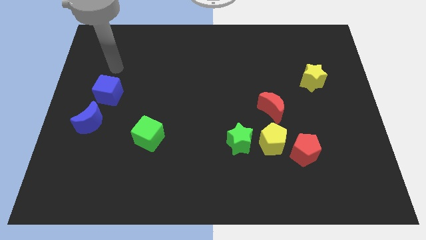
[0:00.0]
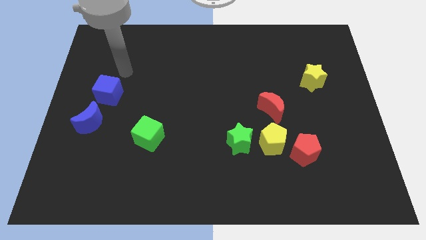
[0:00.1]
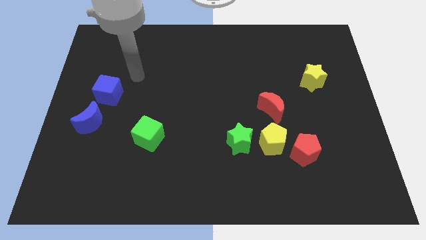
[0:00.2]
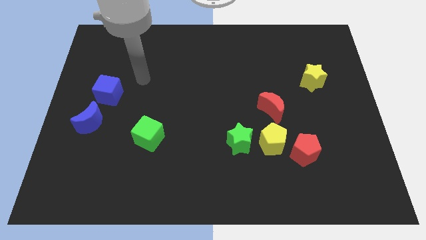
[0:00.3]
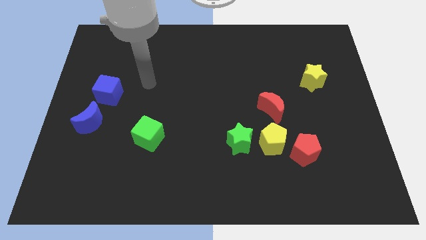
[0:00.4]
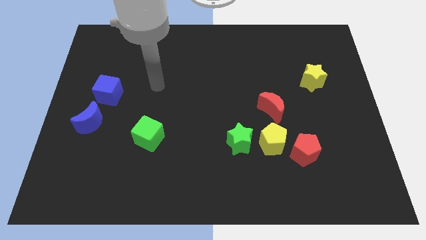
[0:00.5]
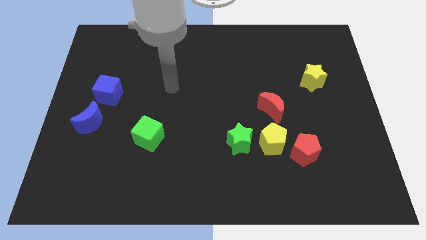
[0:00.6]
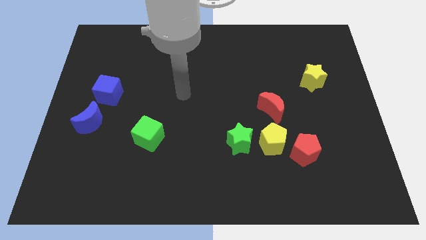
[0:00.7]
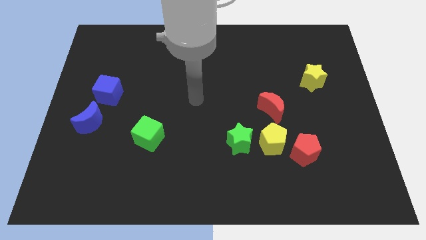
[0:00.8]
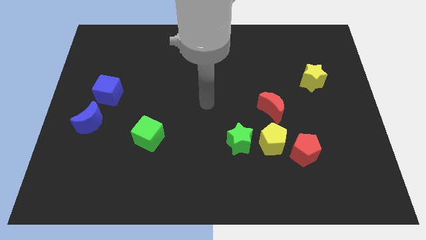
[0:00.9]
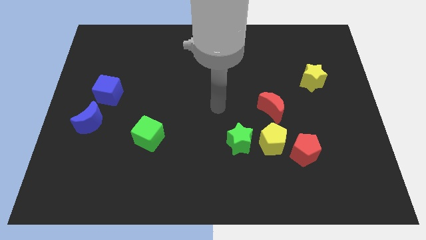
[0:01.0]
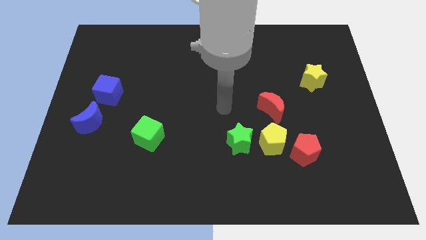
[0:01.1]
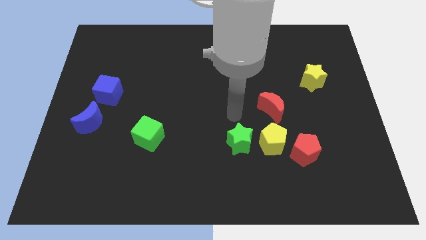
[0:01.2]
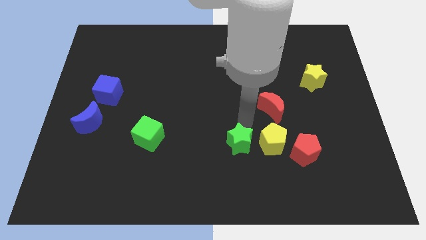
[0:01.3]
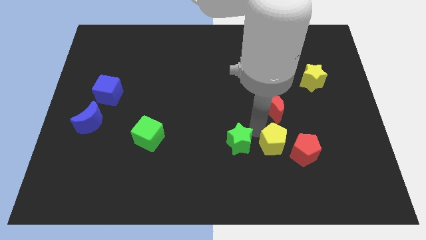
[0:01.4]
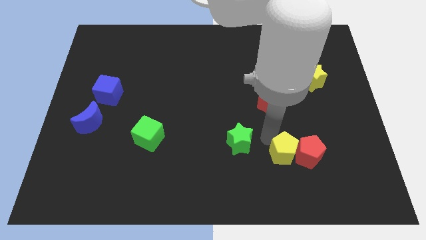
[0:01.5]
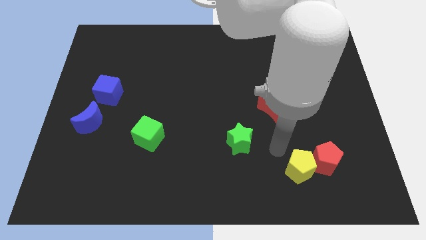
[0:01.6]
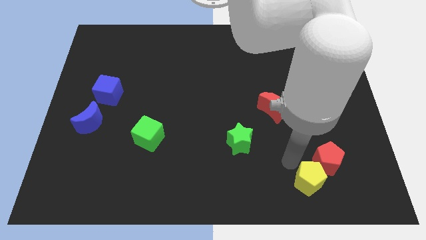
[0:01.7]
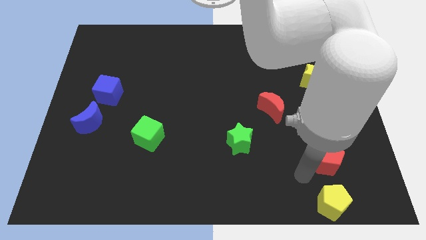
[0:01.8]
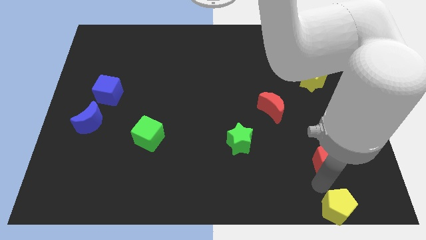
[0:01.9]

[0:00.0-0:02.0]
pull the red pentagon apart from the yellow pentagon

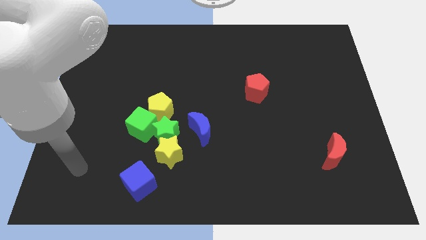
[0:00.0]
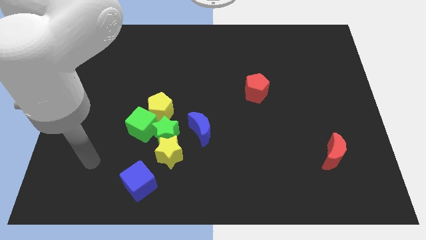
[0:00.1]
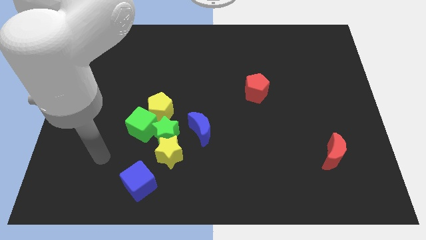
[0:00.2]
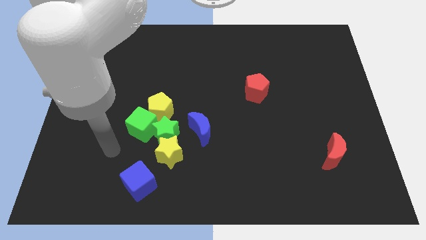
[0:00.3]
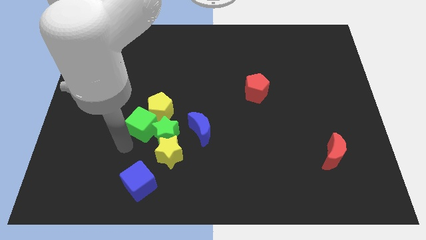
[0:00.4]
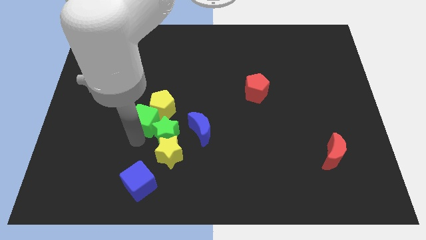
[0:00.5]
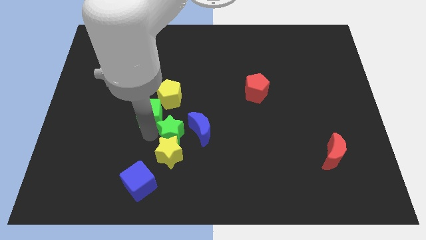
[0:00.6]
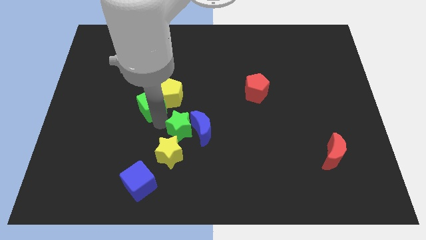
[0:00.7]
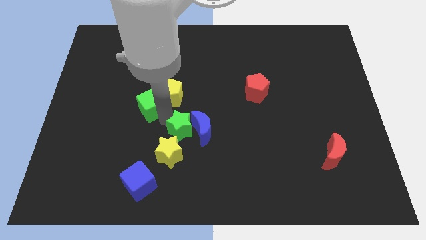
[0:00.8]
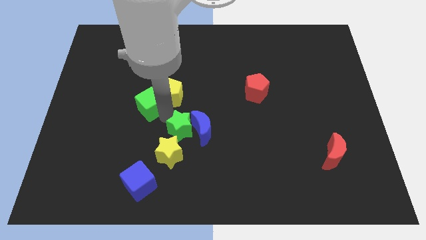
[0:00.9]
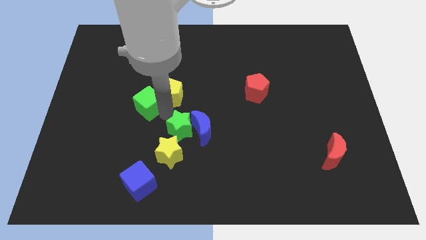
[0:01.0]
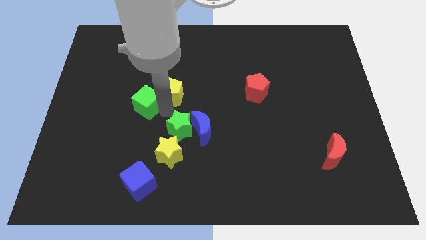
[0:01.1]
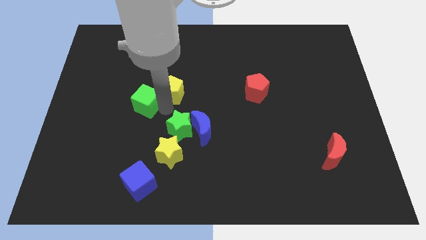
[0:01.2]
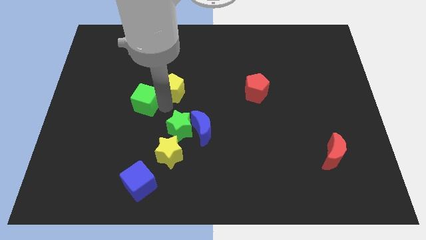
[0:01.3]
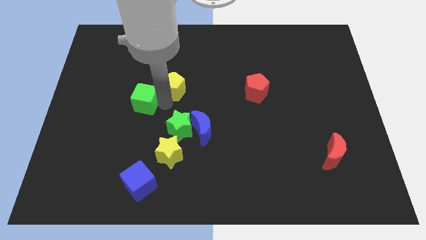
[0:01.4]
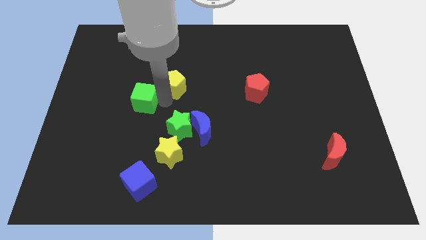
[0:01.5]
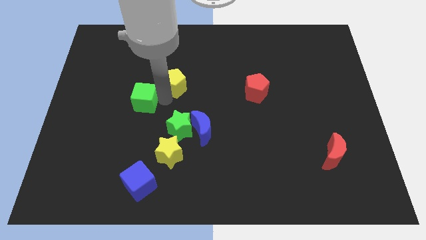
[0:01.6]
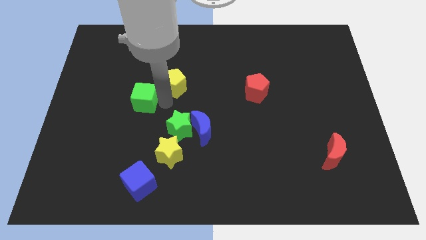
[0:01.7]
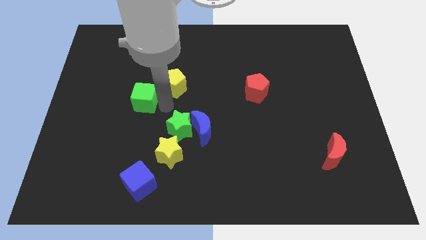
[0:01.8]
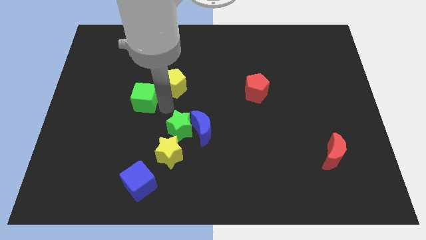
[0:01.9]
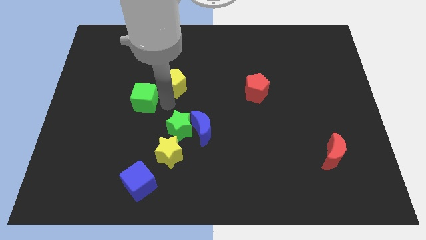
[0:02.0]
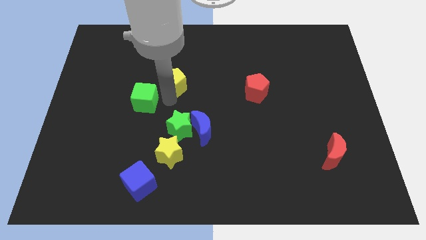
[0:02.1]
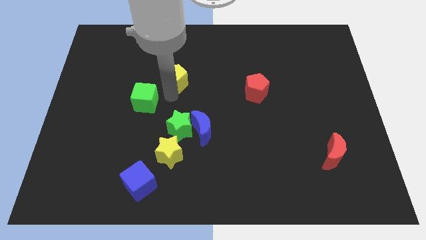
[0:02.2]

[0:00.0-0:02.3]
pull the yellow pentagon apart from the green cube and green star

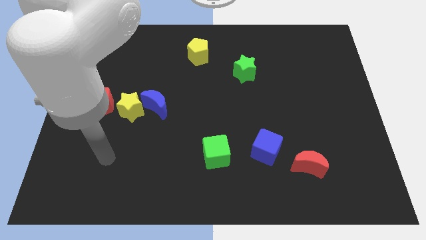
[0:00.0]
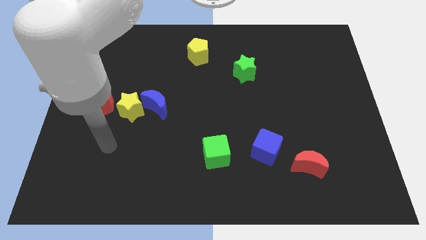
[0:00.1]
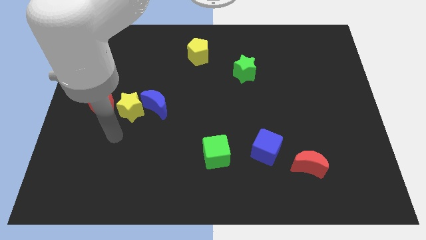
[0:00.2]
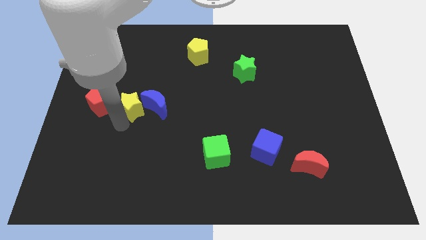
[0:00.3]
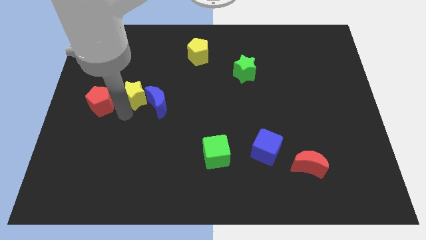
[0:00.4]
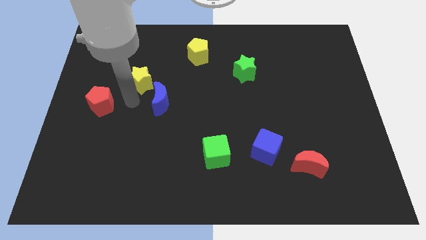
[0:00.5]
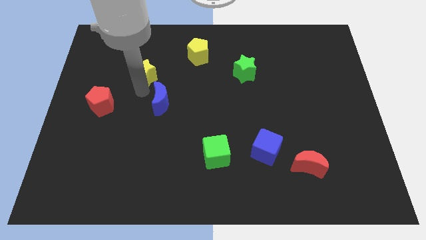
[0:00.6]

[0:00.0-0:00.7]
pull the blue moon apart from the yellow star

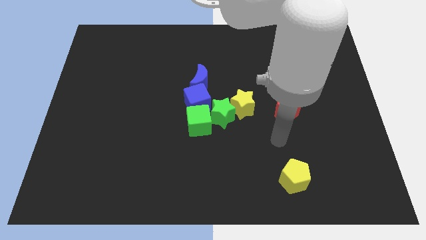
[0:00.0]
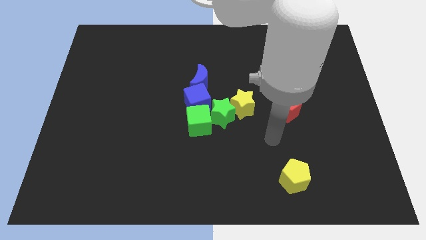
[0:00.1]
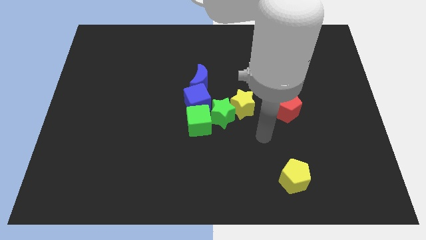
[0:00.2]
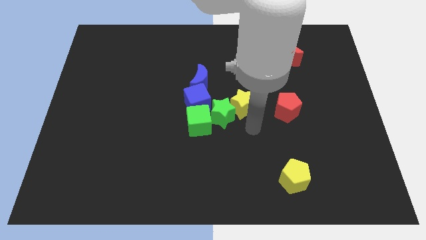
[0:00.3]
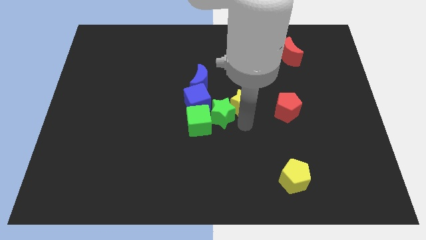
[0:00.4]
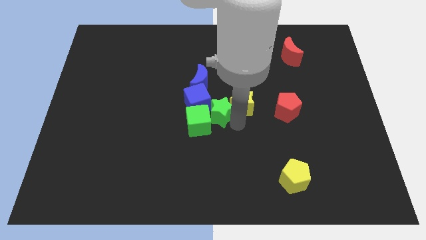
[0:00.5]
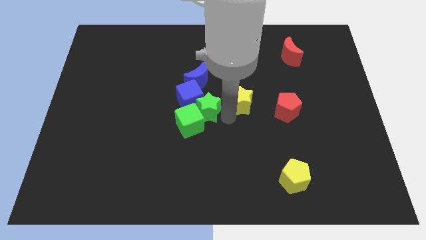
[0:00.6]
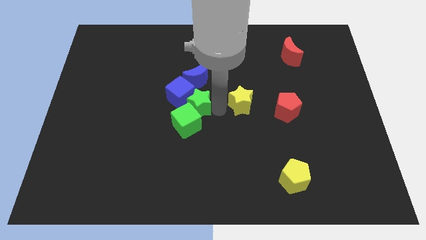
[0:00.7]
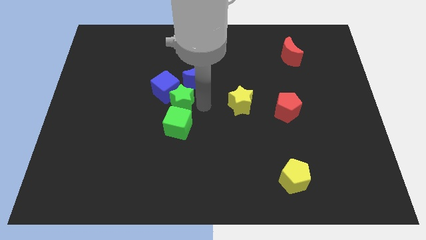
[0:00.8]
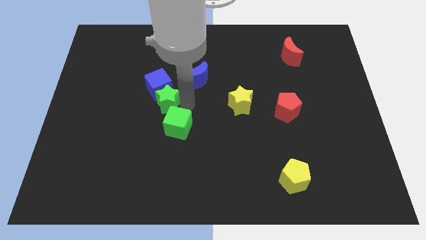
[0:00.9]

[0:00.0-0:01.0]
pull the green cube apart from the green star and blue cube

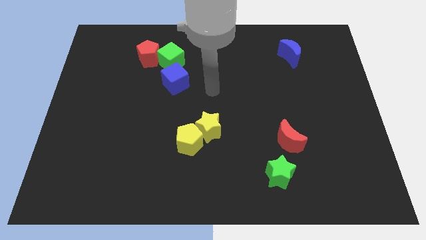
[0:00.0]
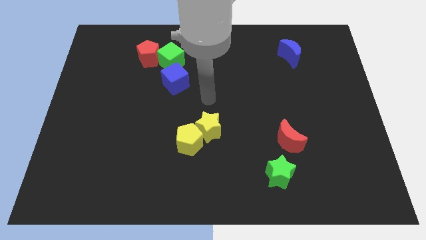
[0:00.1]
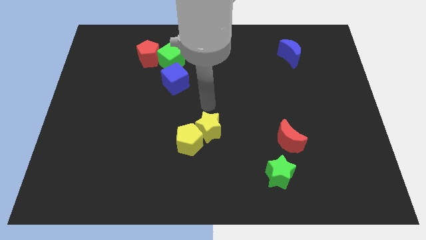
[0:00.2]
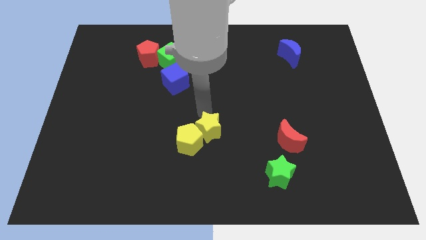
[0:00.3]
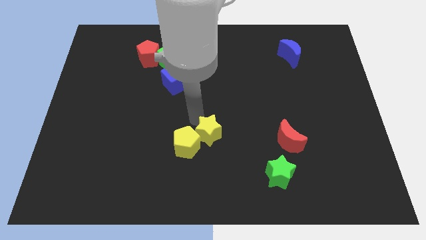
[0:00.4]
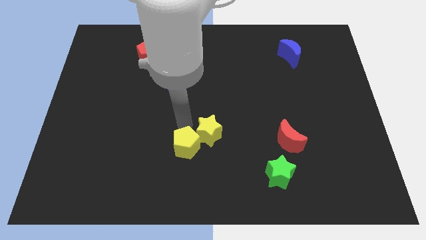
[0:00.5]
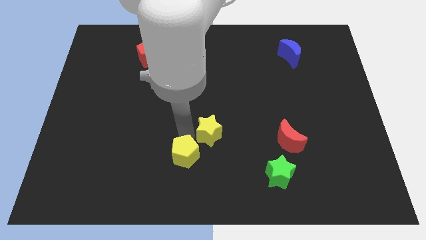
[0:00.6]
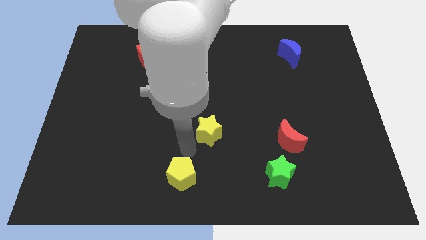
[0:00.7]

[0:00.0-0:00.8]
move the yellow star away from the yellow pentagon

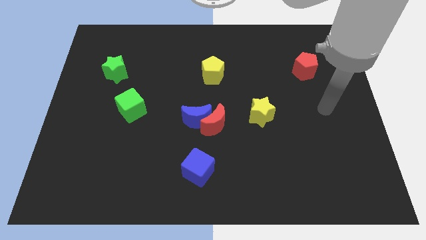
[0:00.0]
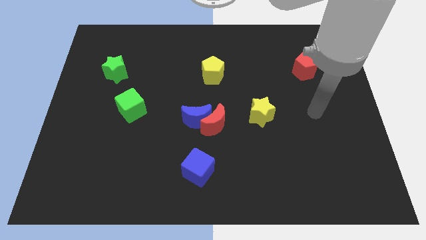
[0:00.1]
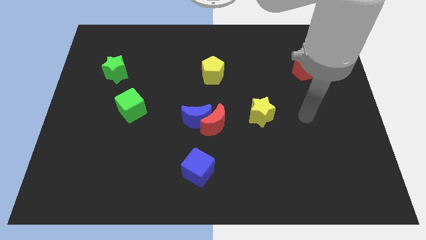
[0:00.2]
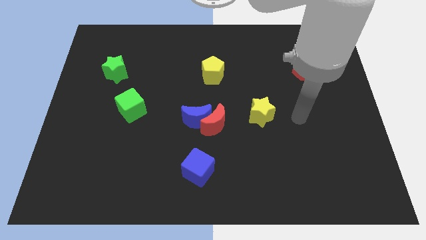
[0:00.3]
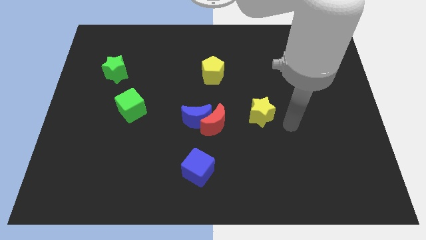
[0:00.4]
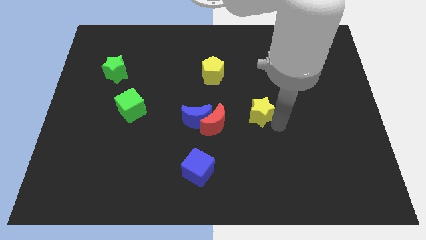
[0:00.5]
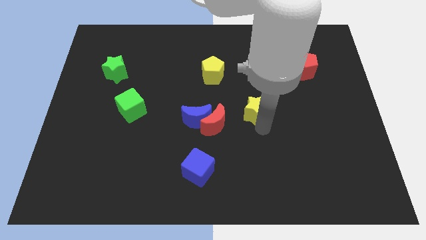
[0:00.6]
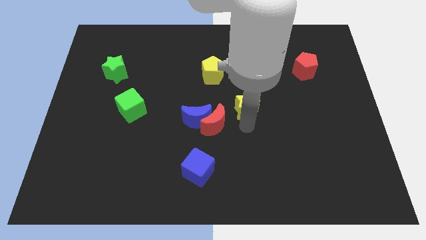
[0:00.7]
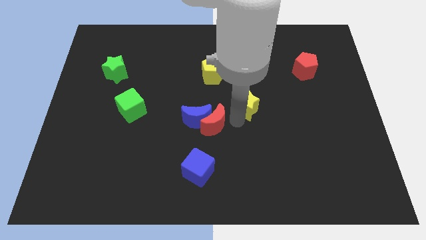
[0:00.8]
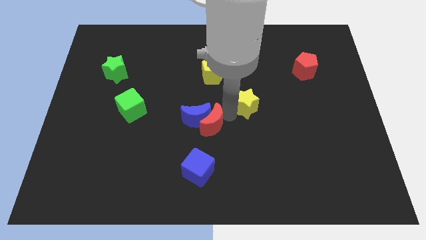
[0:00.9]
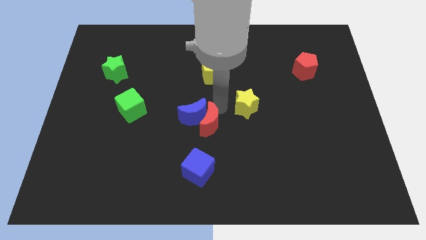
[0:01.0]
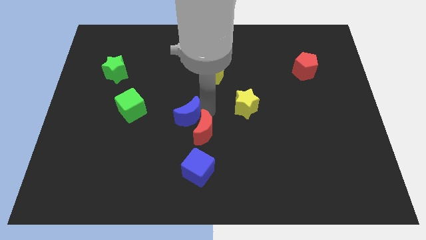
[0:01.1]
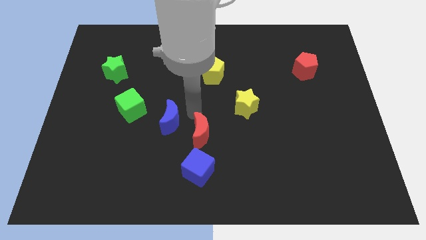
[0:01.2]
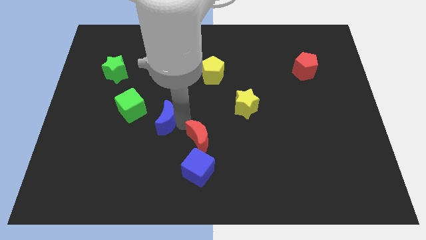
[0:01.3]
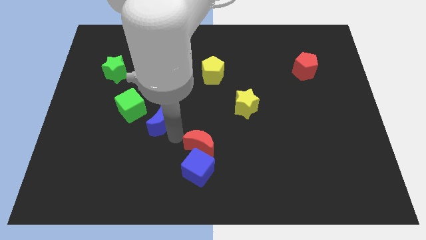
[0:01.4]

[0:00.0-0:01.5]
pull the red moon apart from the blue moon

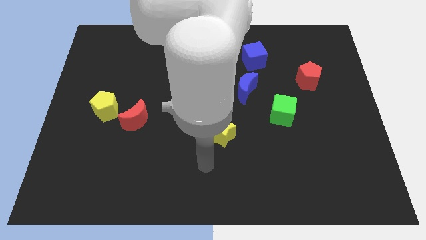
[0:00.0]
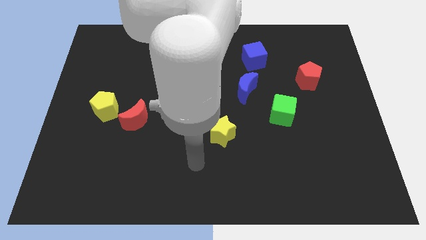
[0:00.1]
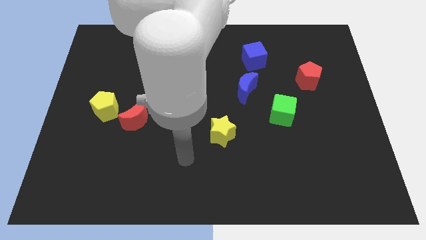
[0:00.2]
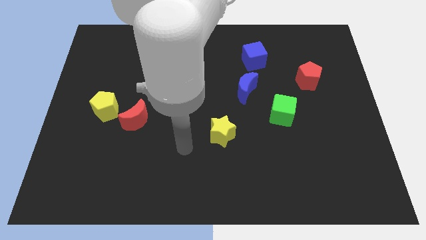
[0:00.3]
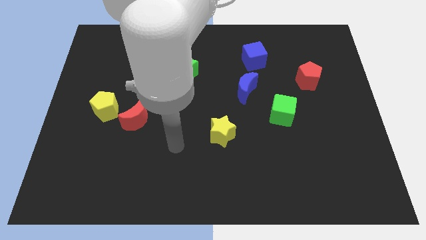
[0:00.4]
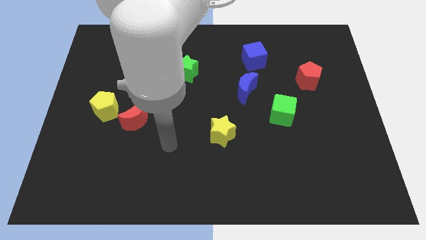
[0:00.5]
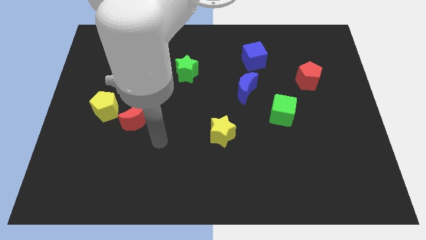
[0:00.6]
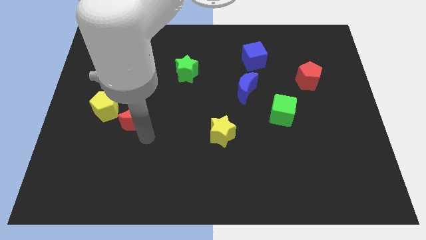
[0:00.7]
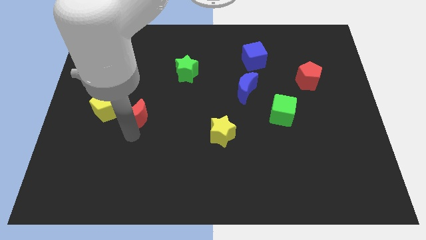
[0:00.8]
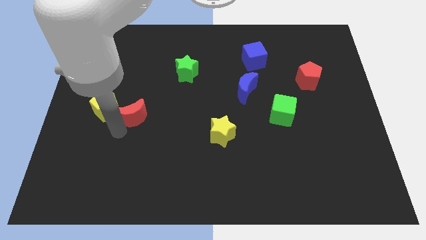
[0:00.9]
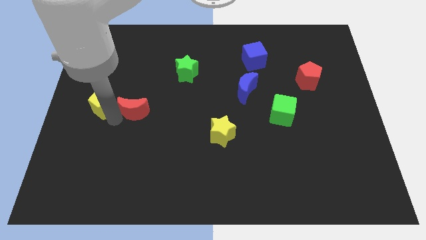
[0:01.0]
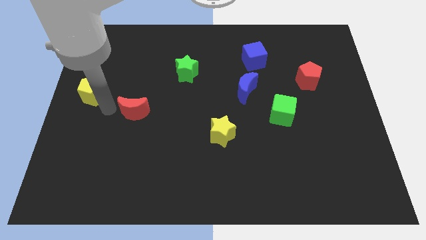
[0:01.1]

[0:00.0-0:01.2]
pull the red moon apart from the yellow pentagon

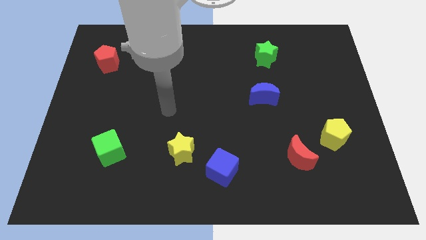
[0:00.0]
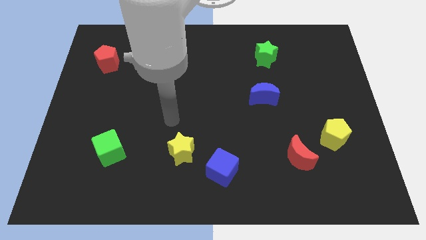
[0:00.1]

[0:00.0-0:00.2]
pull the blue cube apart from the yellow star
